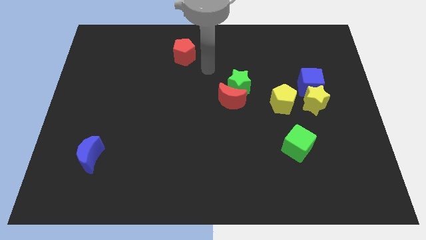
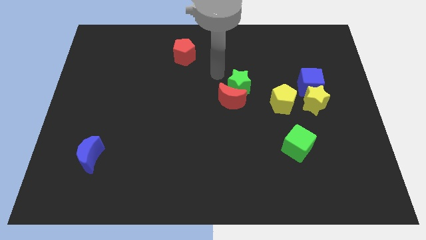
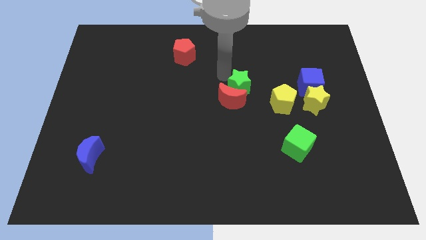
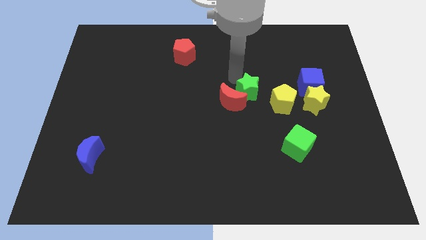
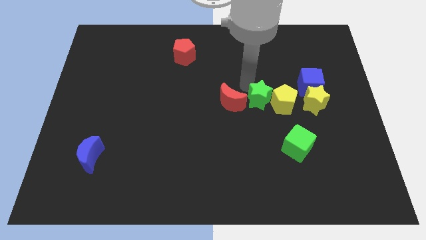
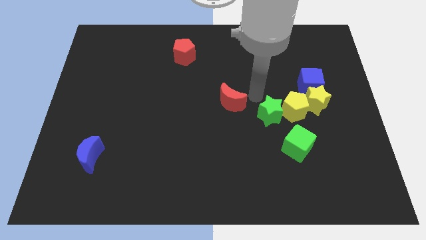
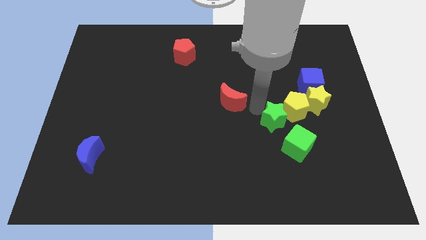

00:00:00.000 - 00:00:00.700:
separate the red moon from the green star

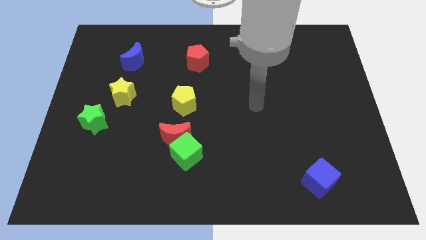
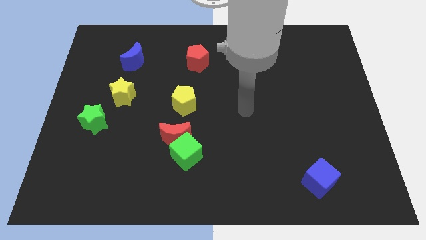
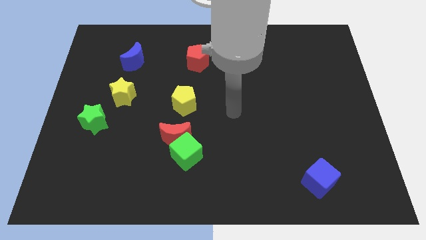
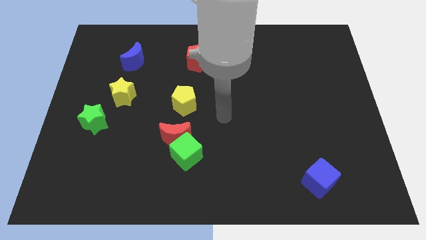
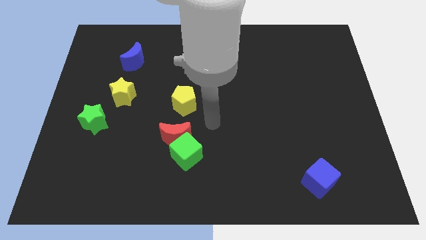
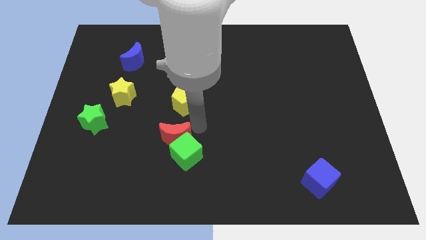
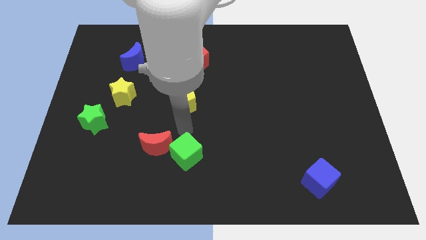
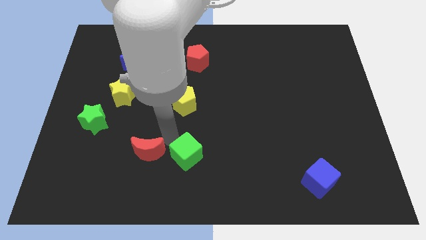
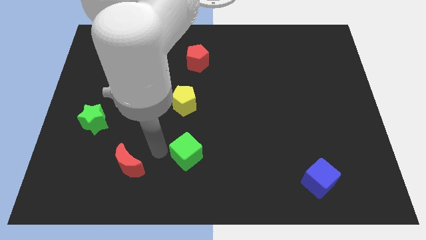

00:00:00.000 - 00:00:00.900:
pull the green cube apart from the red moon

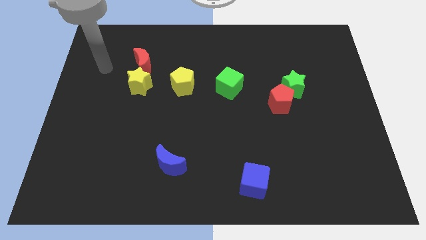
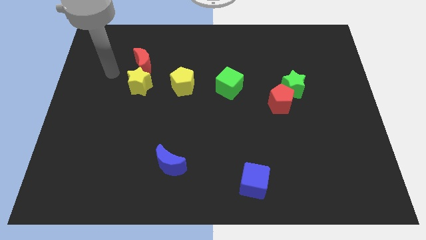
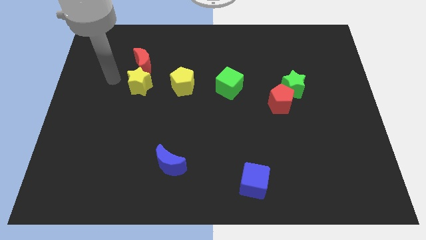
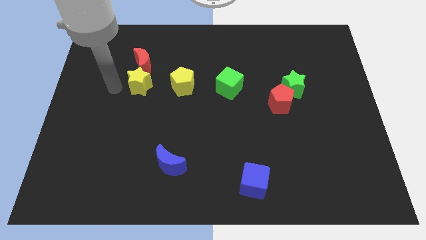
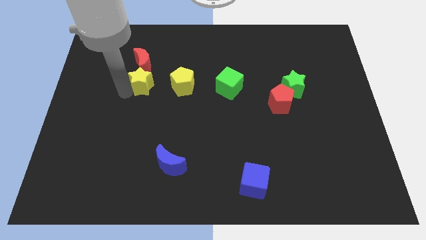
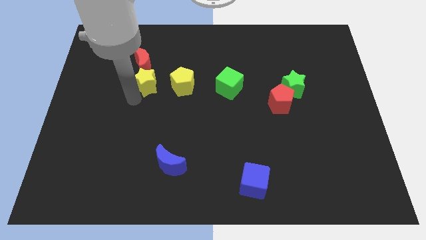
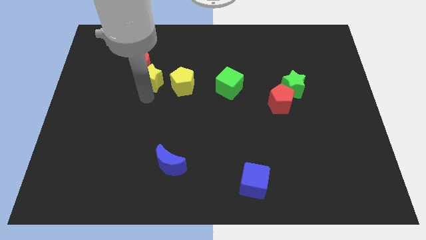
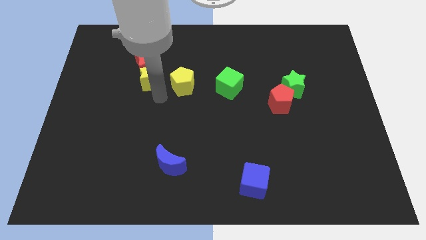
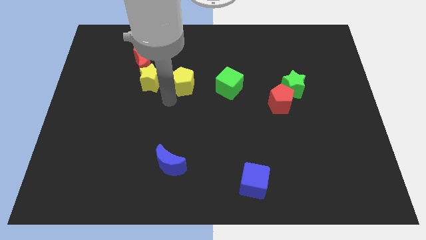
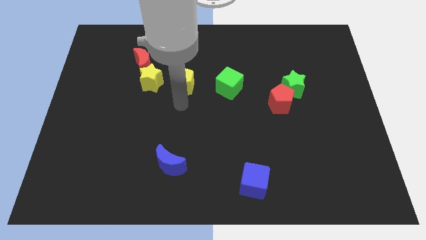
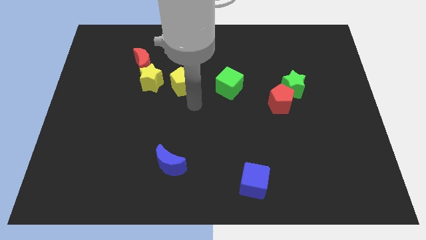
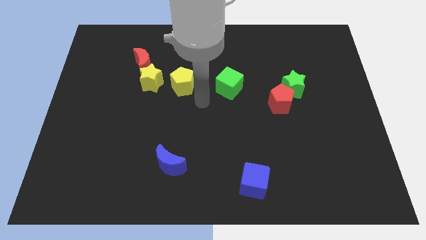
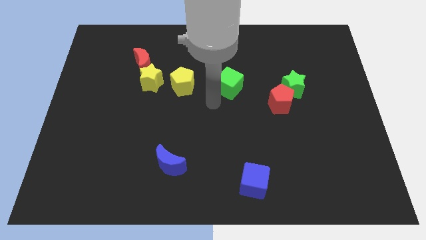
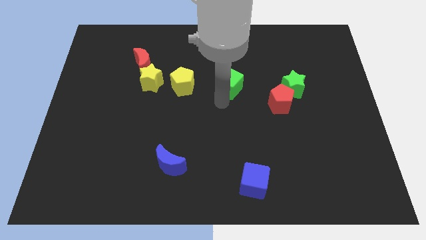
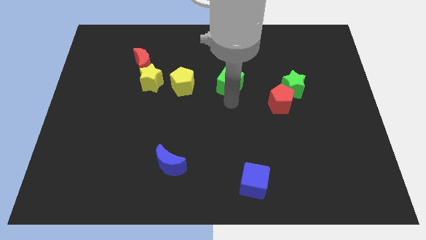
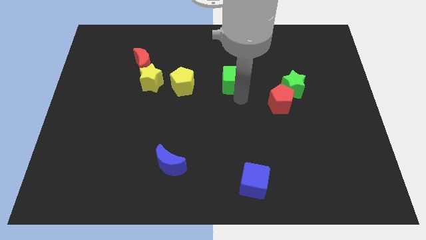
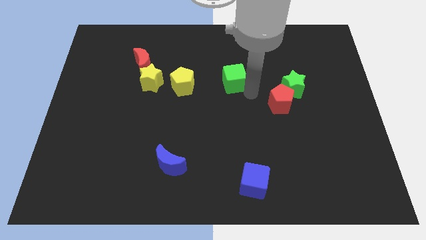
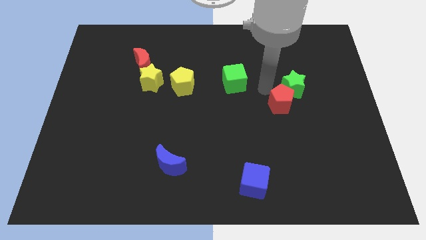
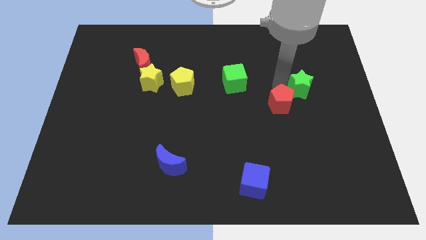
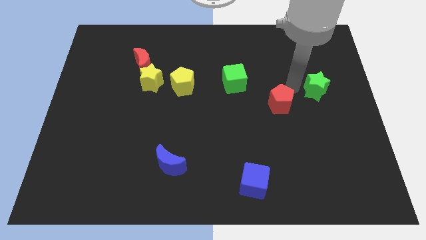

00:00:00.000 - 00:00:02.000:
pull the red pentagon apart from the green star

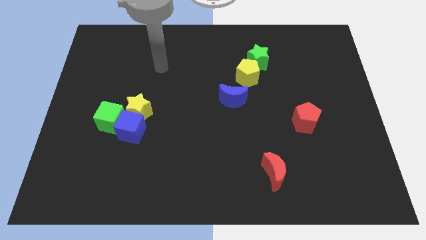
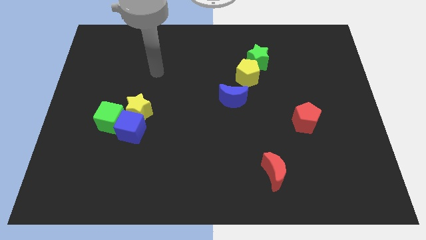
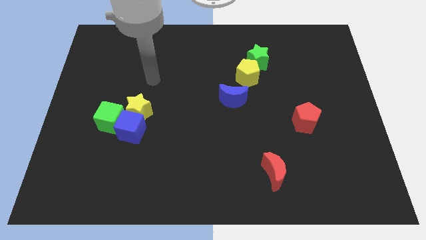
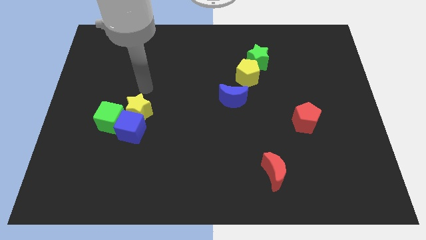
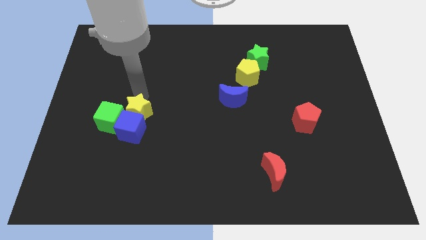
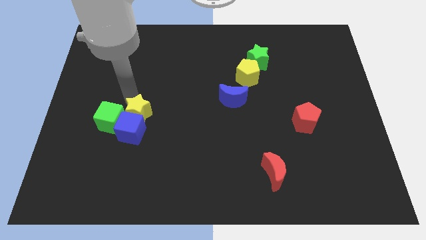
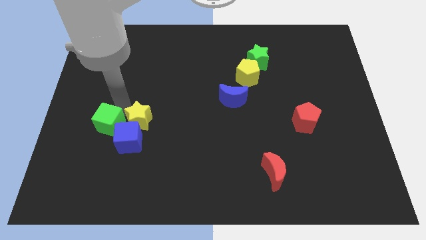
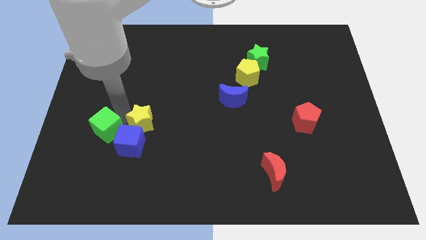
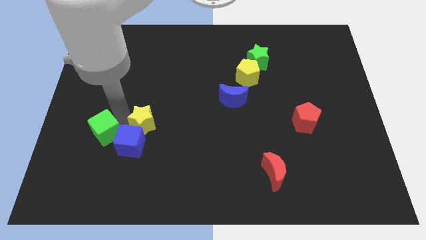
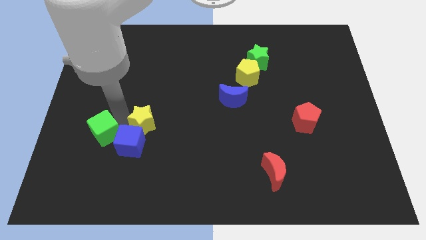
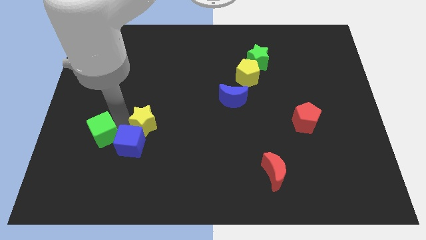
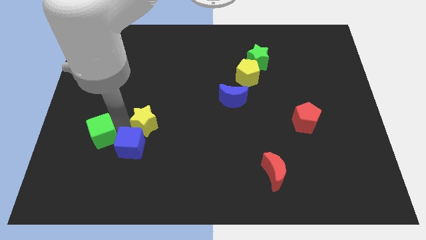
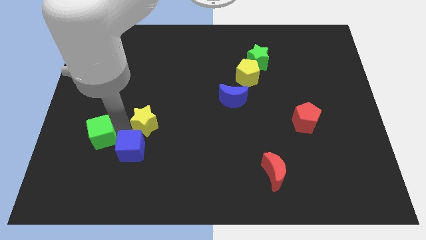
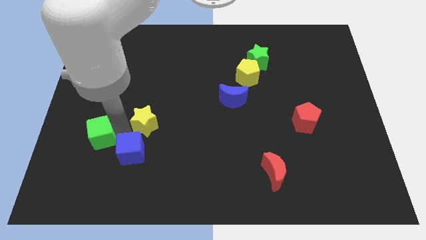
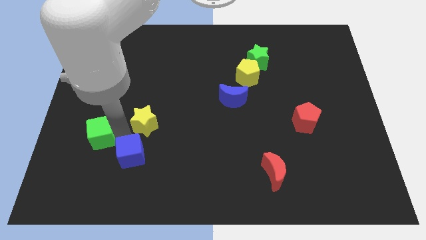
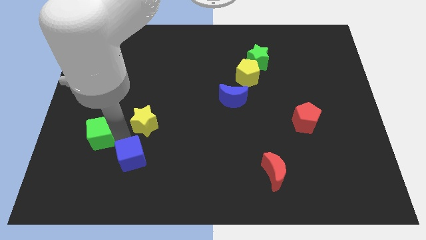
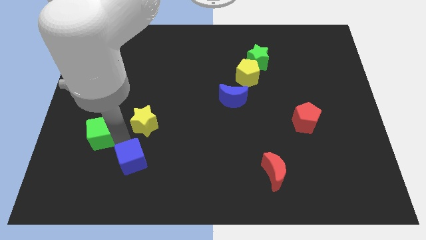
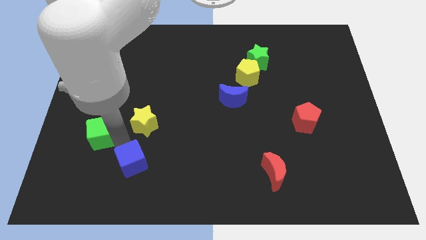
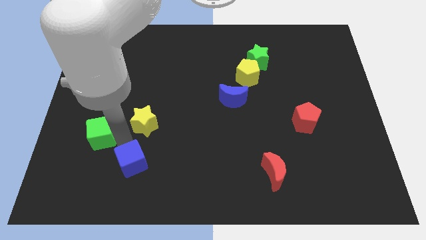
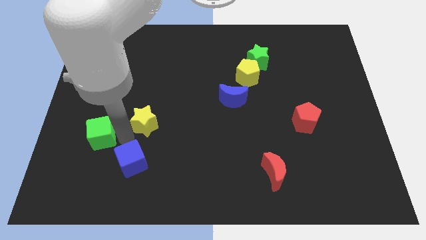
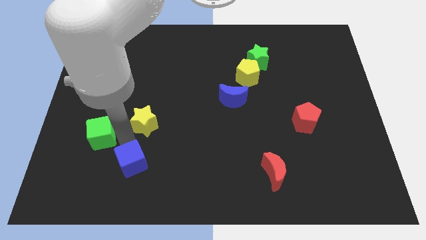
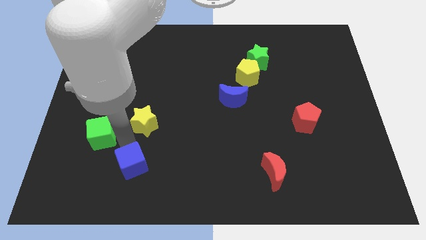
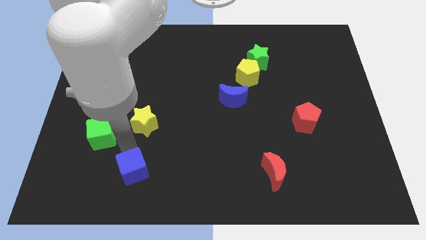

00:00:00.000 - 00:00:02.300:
separate the blue cube from the yellow star and green cube

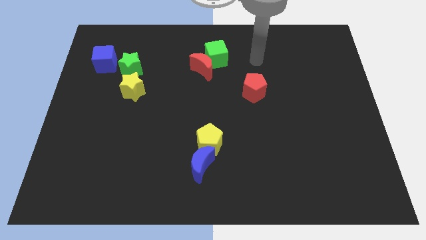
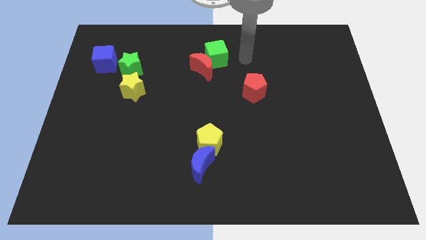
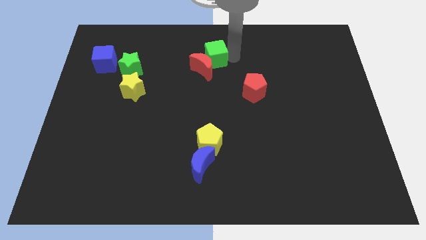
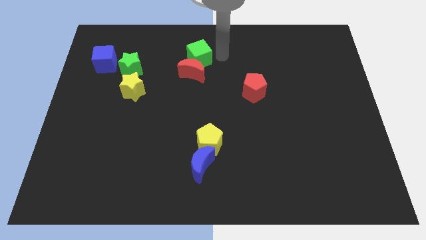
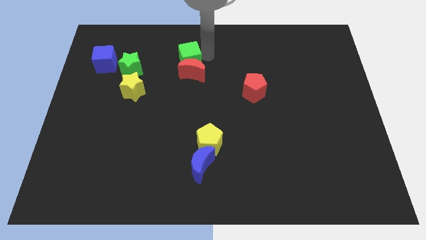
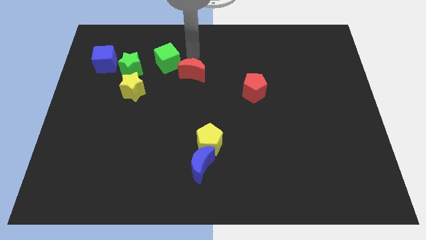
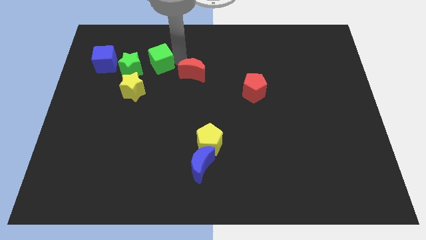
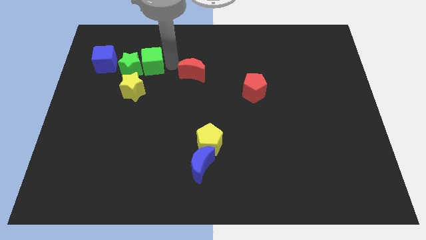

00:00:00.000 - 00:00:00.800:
move the red moon away from the green cube

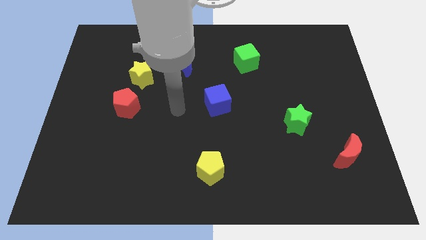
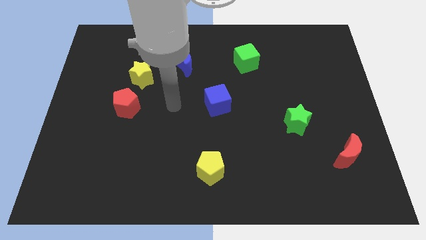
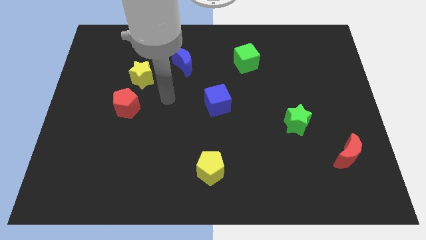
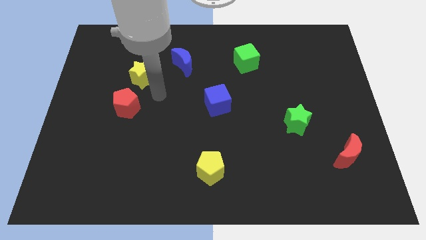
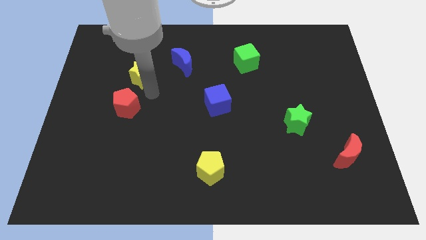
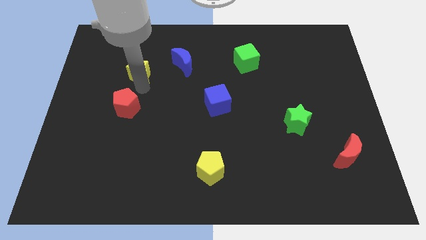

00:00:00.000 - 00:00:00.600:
move the red pentagon away from the yellow star

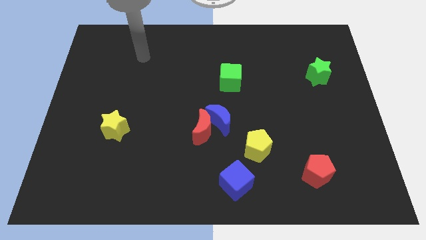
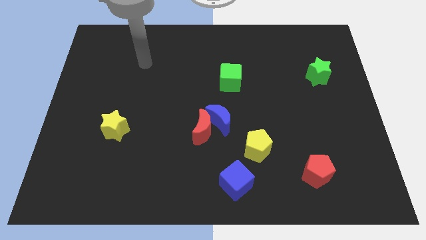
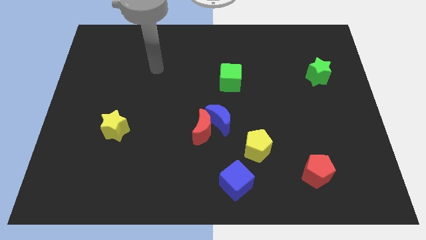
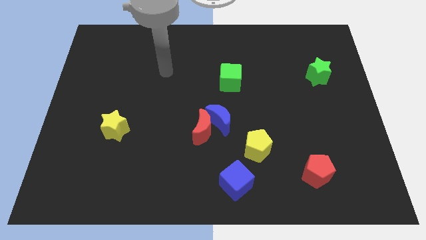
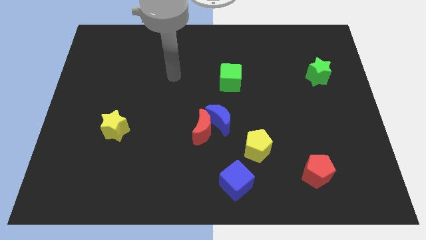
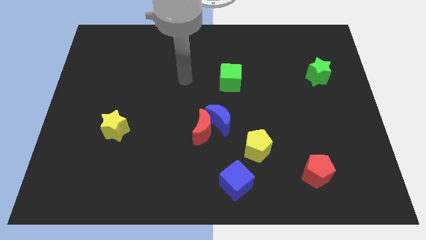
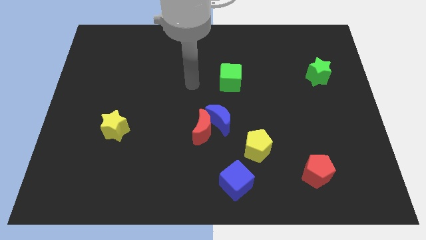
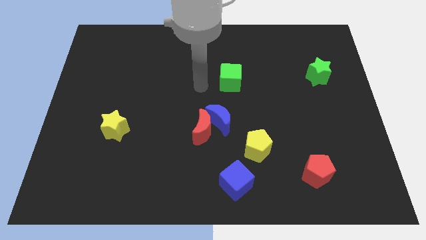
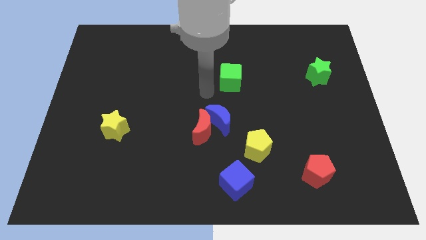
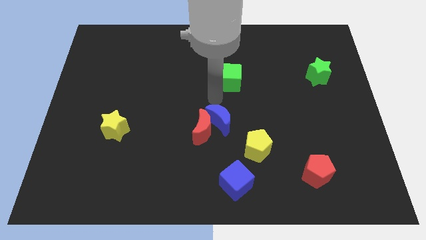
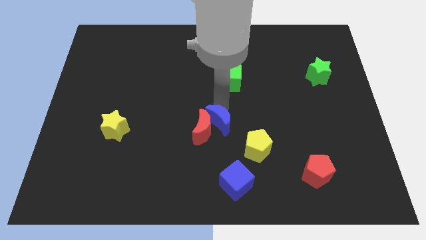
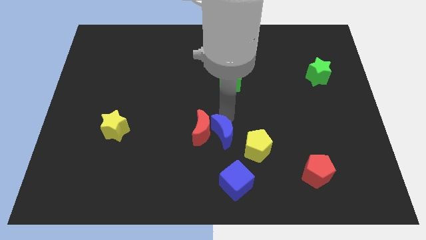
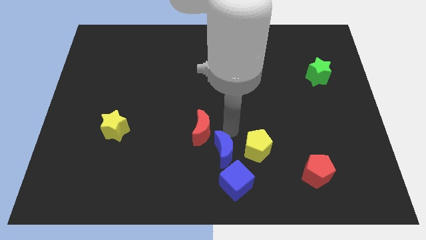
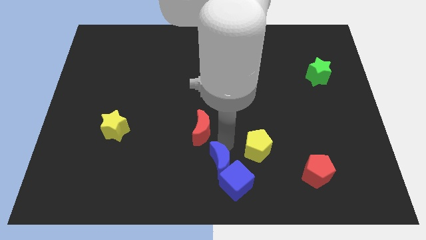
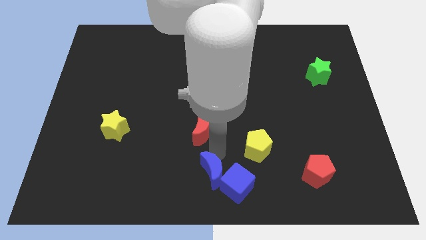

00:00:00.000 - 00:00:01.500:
separate the red moon from the blue moon

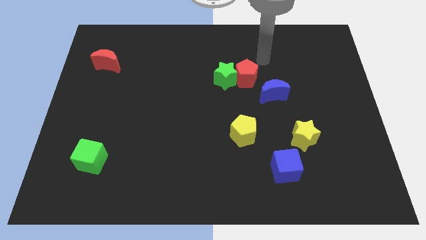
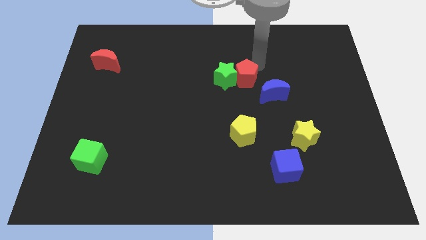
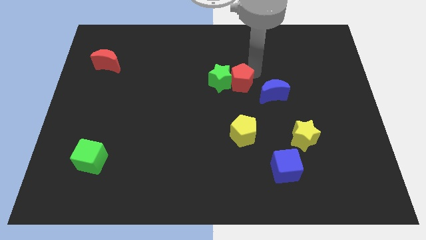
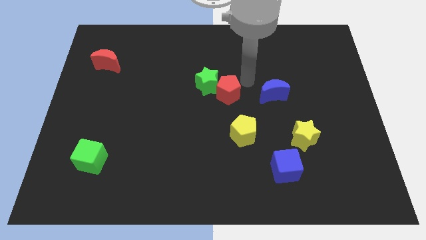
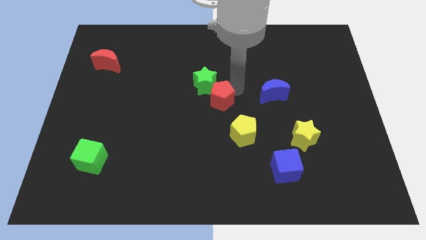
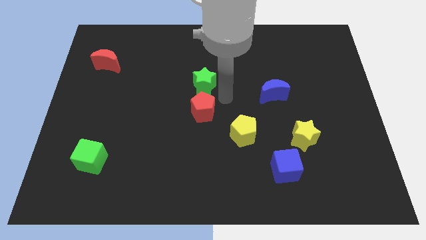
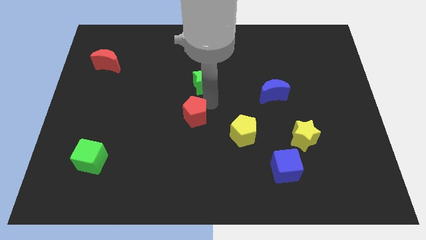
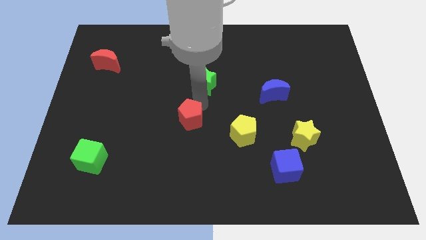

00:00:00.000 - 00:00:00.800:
move the green star away from the red pentagon
